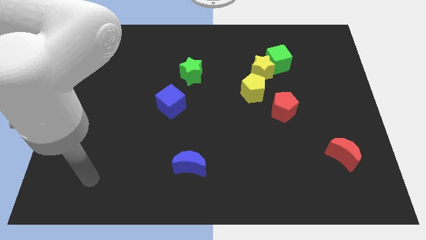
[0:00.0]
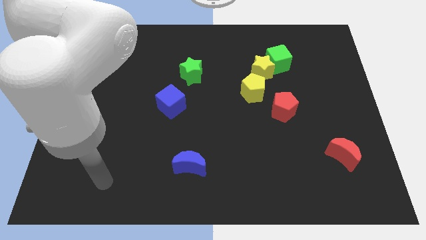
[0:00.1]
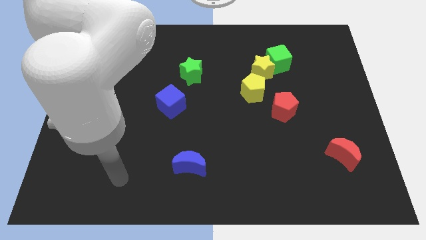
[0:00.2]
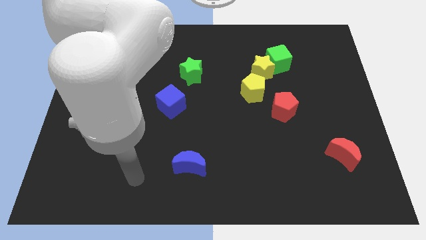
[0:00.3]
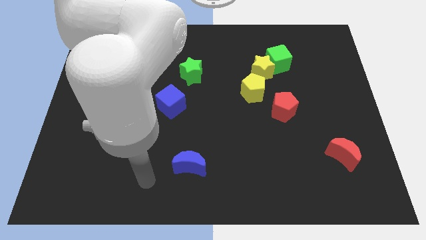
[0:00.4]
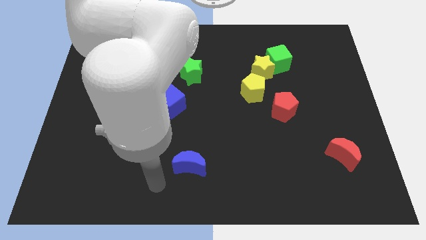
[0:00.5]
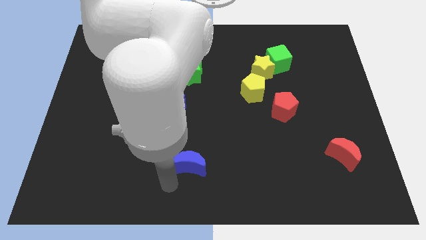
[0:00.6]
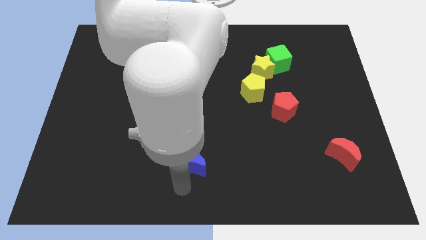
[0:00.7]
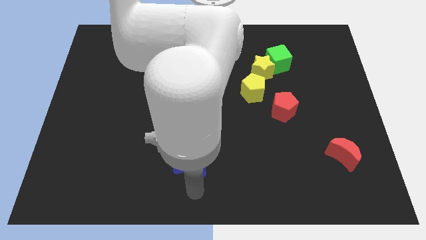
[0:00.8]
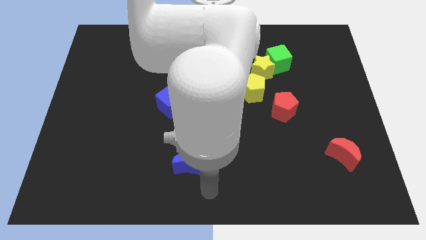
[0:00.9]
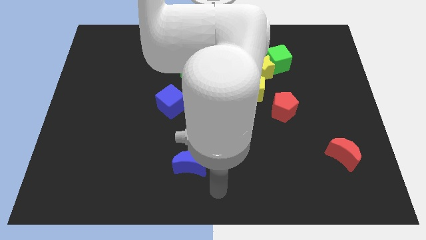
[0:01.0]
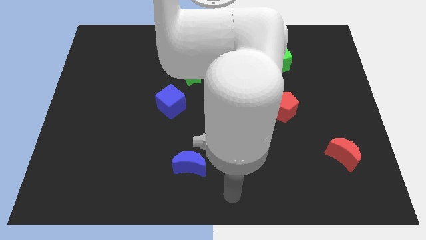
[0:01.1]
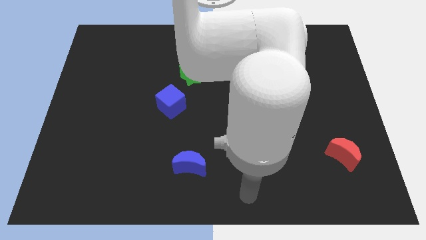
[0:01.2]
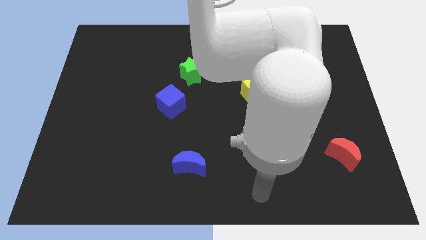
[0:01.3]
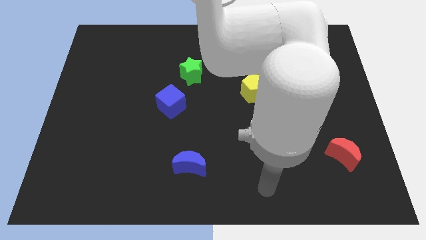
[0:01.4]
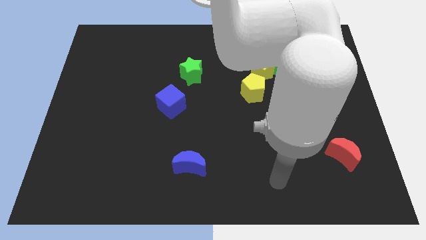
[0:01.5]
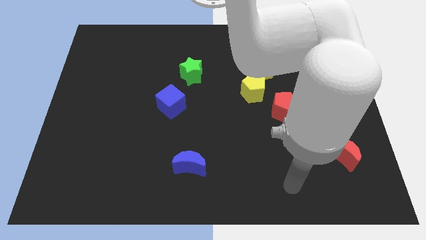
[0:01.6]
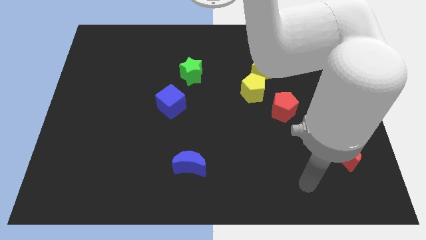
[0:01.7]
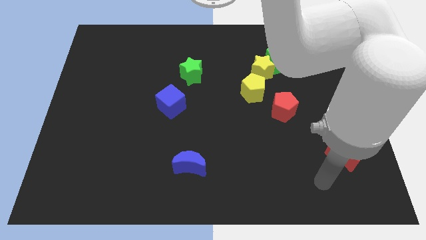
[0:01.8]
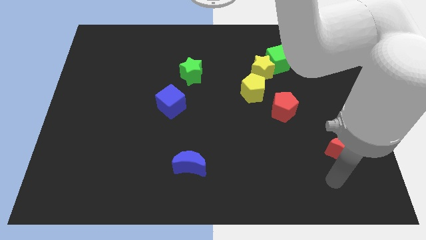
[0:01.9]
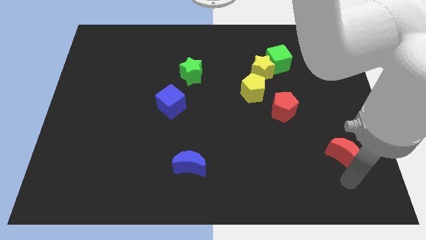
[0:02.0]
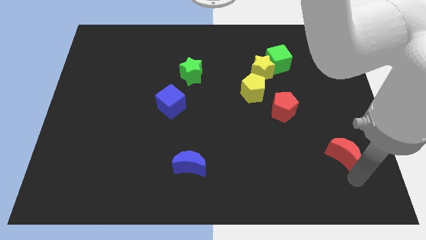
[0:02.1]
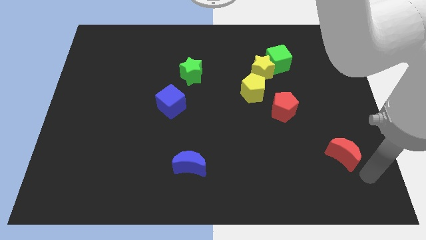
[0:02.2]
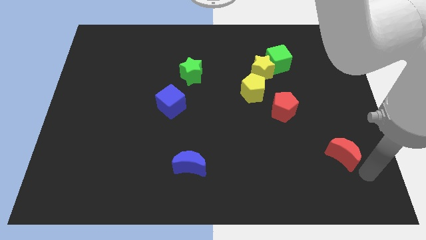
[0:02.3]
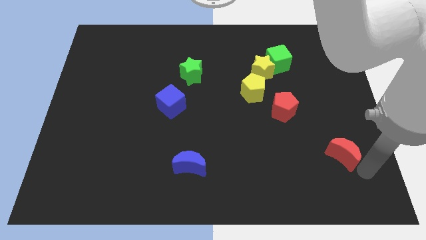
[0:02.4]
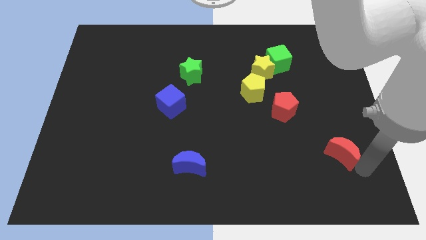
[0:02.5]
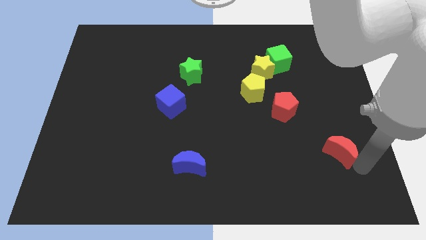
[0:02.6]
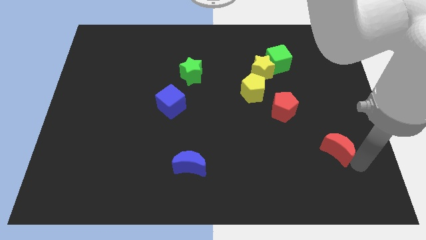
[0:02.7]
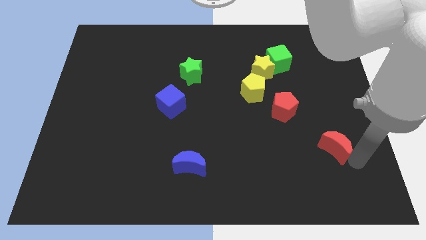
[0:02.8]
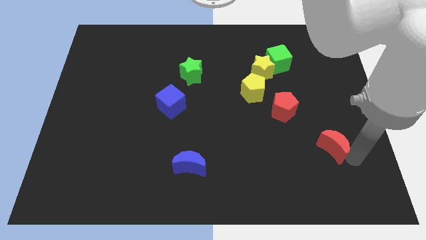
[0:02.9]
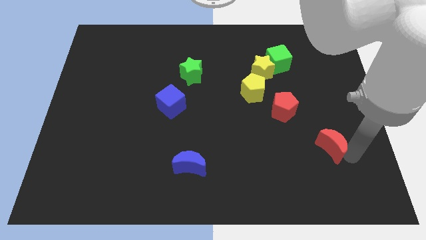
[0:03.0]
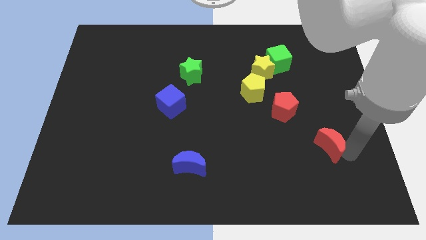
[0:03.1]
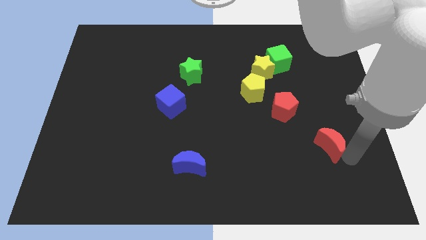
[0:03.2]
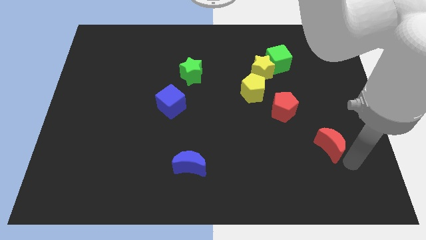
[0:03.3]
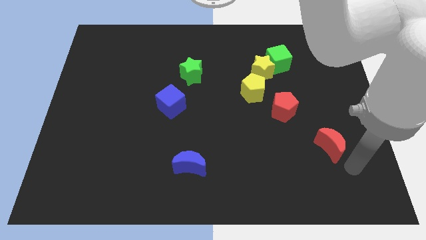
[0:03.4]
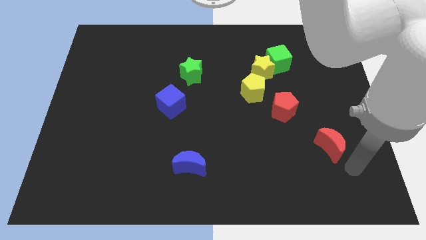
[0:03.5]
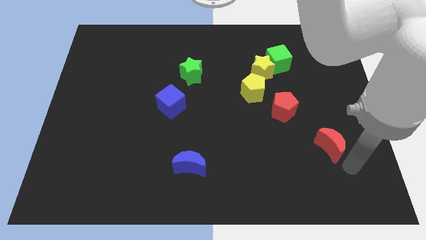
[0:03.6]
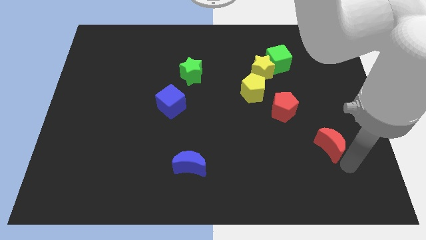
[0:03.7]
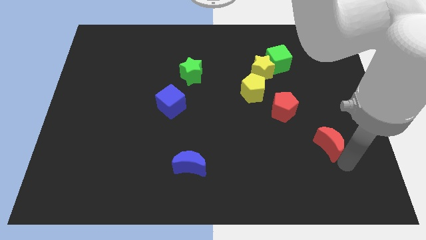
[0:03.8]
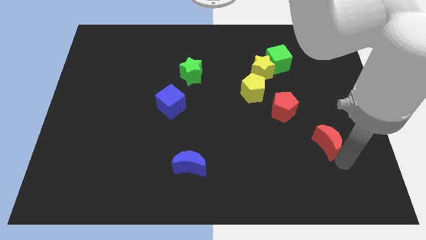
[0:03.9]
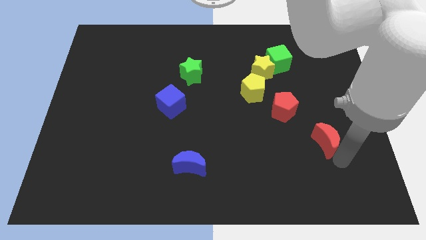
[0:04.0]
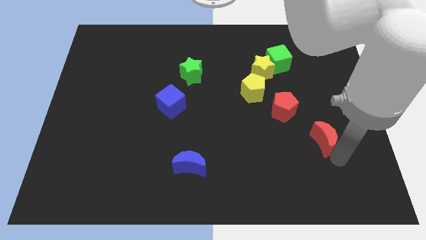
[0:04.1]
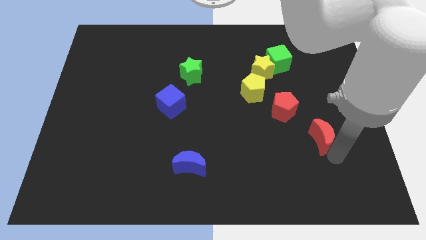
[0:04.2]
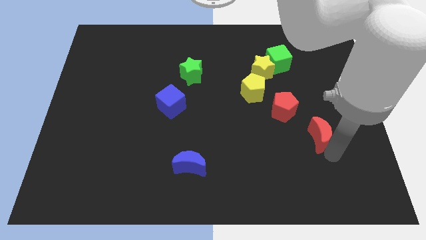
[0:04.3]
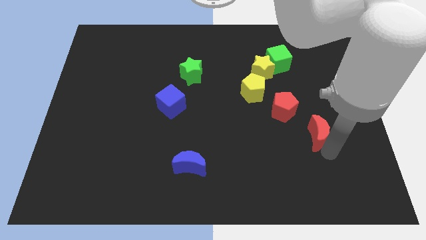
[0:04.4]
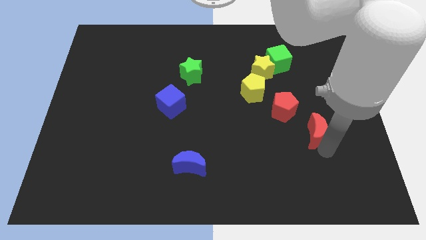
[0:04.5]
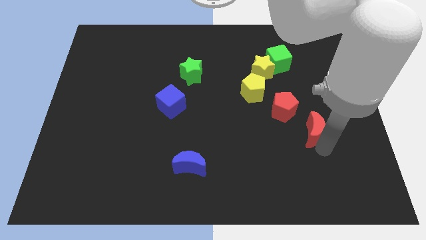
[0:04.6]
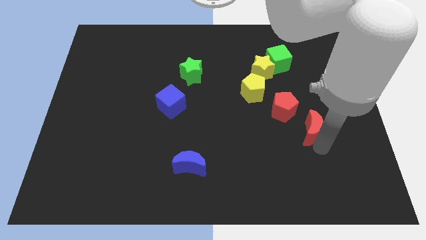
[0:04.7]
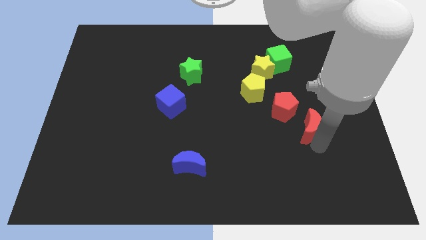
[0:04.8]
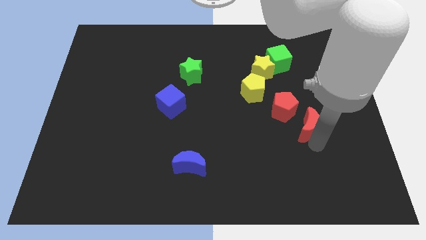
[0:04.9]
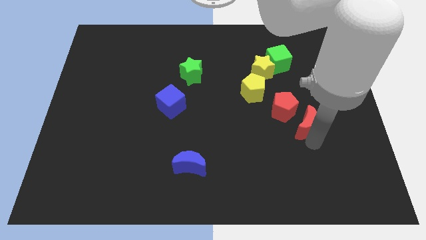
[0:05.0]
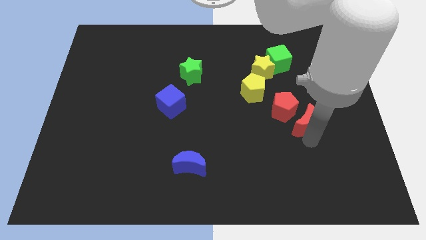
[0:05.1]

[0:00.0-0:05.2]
slide the red moon close to the red pentagon

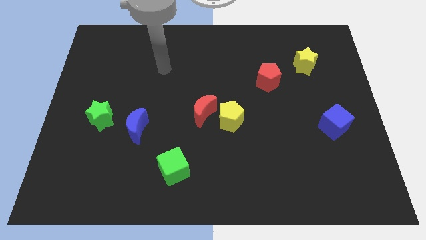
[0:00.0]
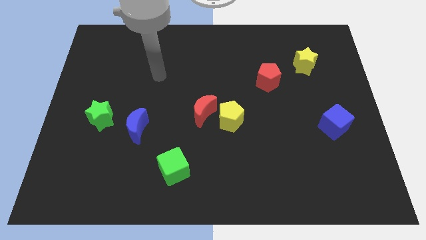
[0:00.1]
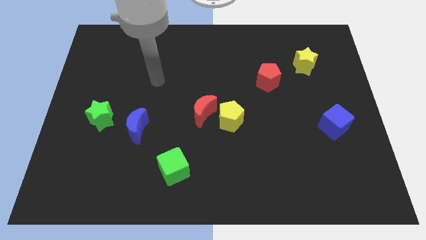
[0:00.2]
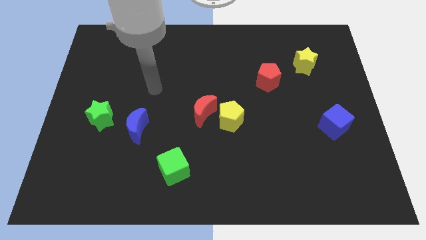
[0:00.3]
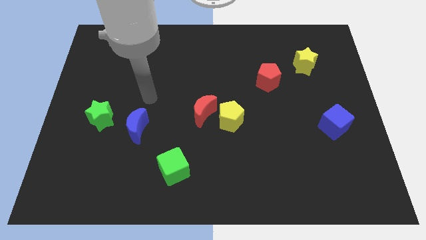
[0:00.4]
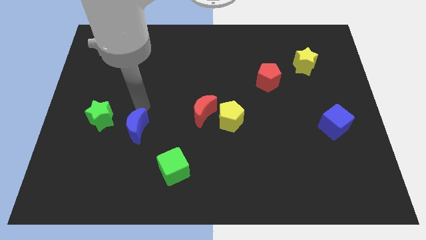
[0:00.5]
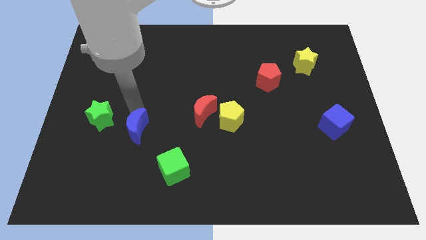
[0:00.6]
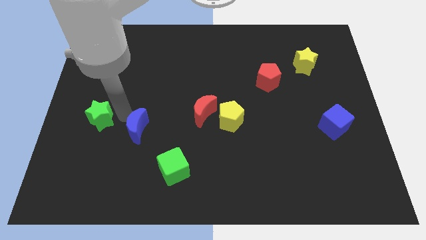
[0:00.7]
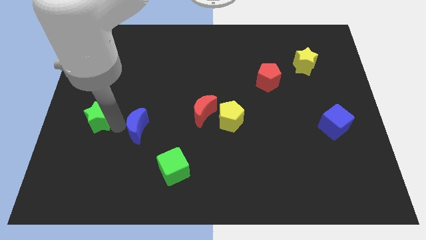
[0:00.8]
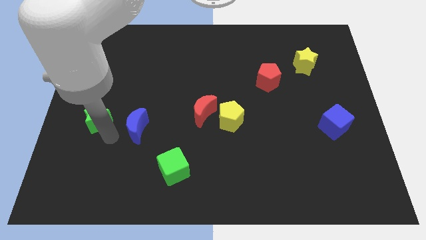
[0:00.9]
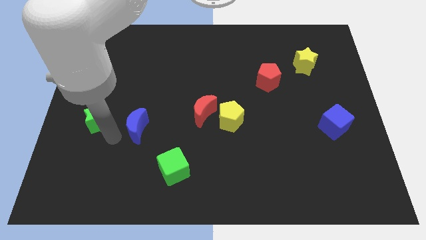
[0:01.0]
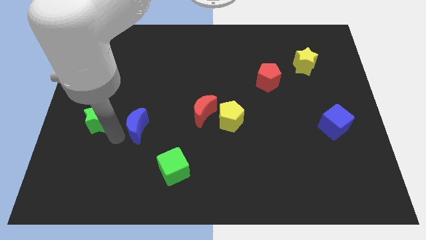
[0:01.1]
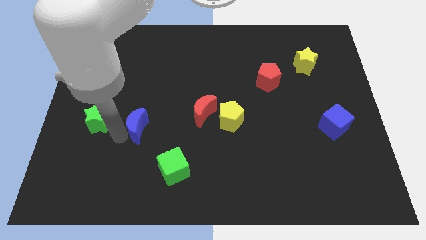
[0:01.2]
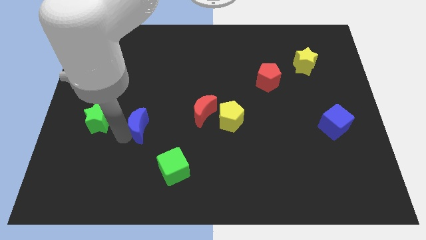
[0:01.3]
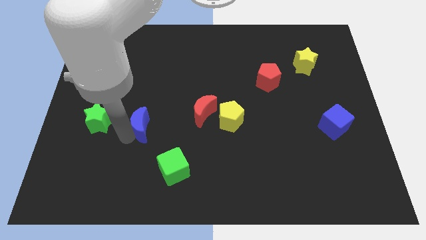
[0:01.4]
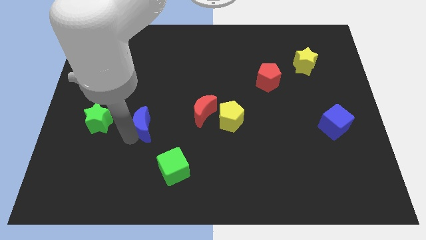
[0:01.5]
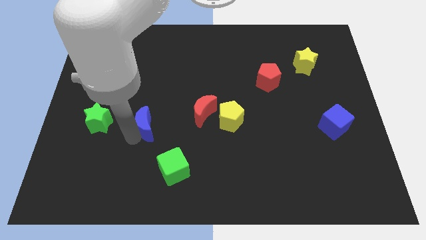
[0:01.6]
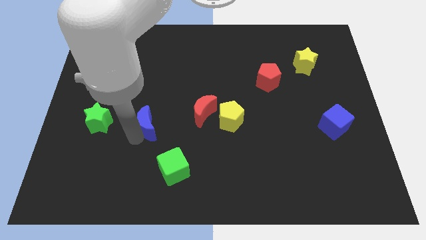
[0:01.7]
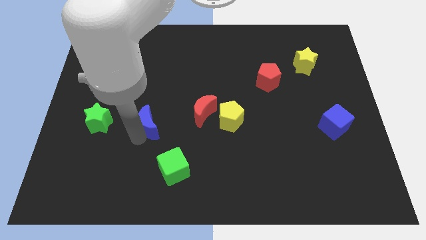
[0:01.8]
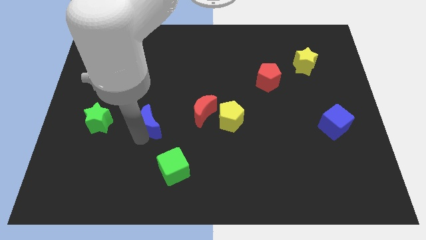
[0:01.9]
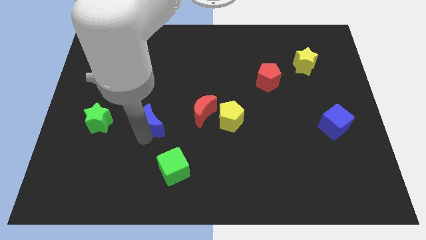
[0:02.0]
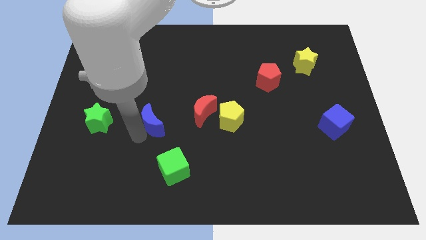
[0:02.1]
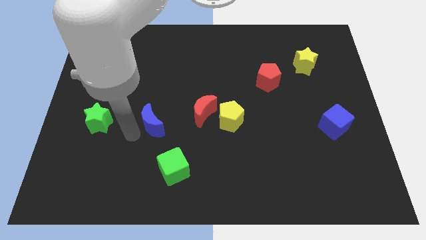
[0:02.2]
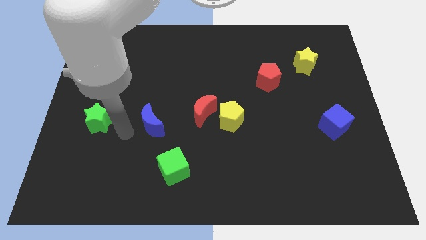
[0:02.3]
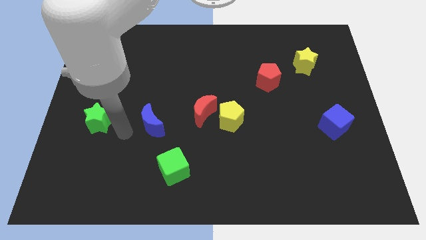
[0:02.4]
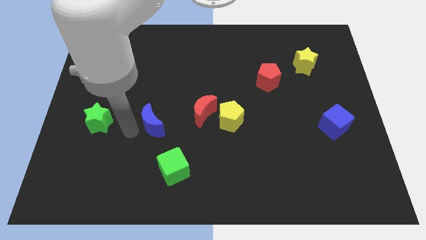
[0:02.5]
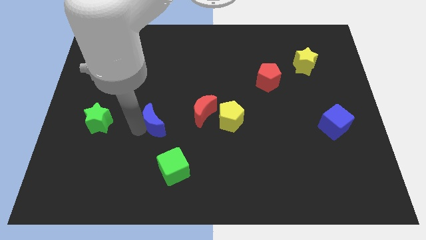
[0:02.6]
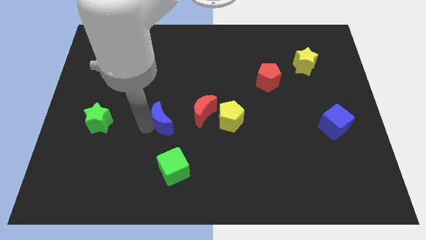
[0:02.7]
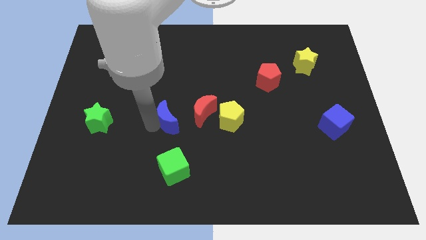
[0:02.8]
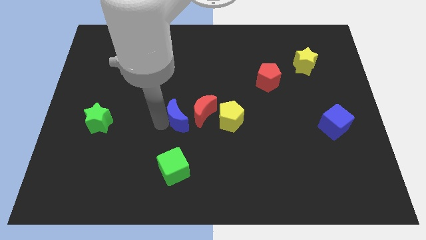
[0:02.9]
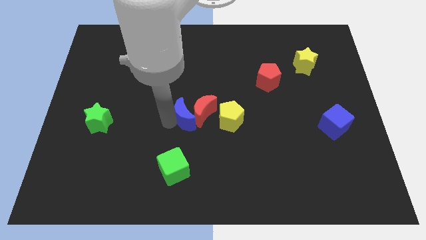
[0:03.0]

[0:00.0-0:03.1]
slide the blue moon towards the red moon
